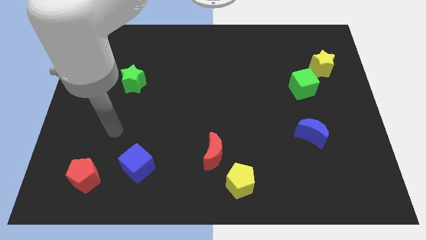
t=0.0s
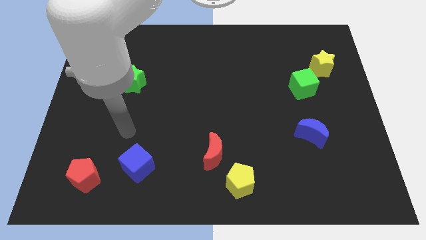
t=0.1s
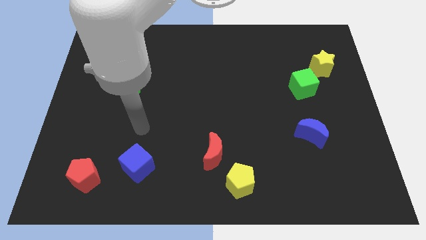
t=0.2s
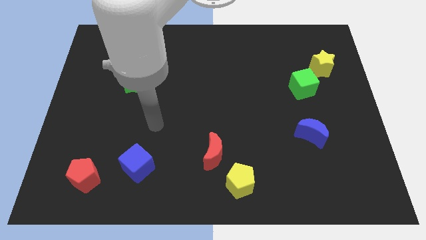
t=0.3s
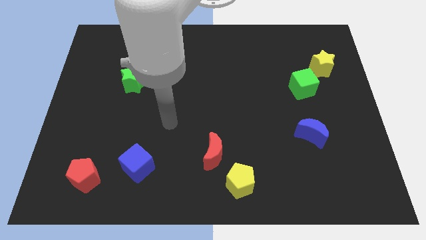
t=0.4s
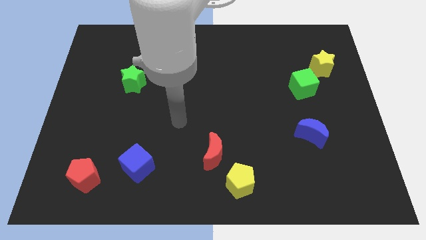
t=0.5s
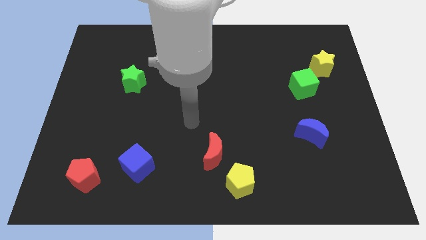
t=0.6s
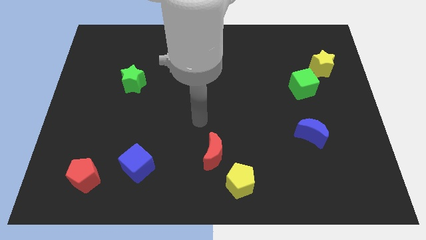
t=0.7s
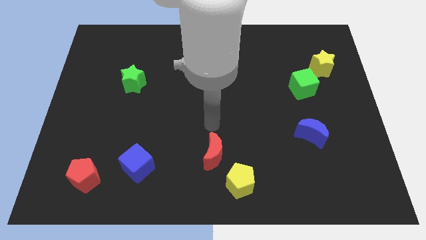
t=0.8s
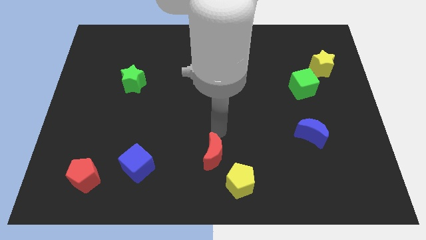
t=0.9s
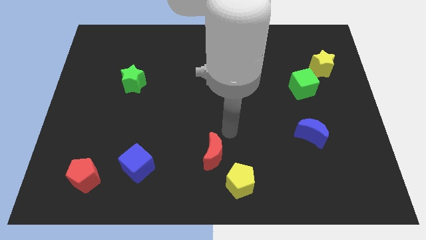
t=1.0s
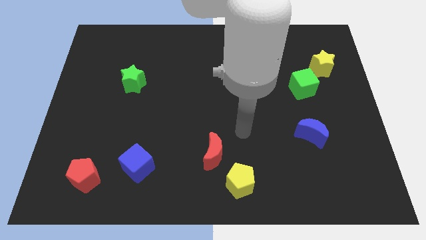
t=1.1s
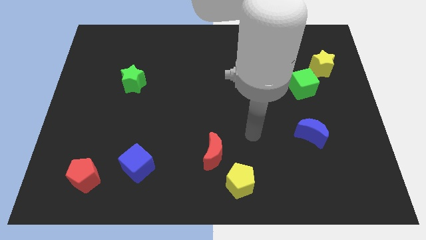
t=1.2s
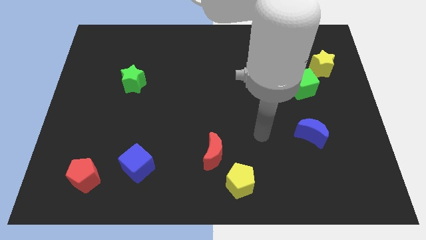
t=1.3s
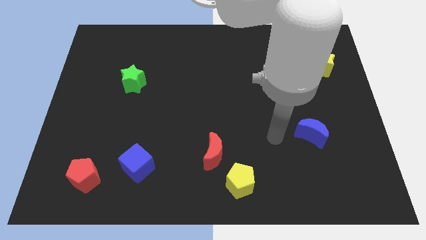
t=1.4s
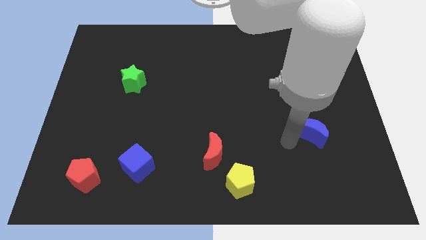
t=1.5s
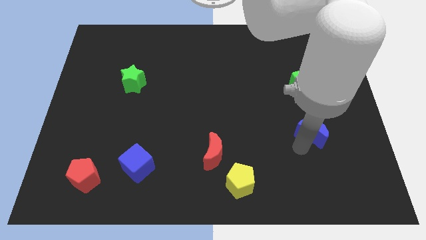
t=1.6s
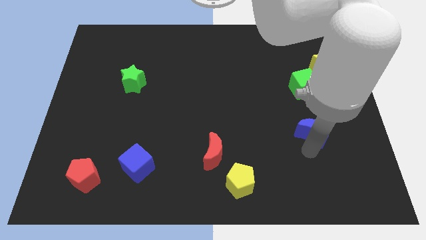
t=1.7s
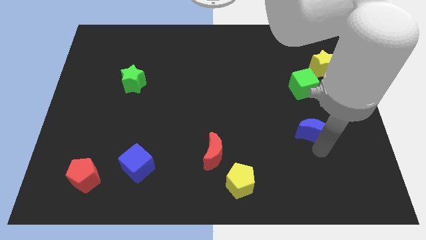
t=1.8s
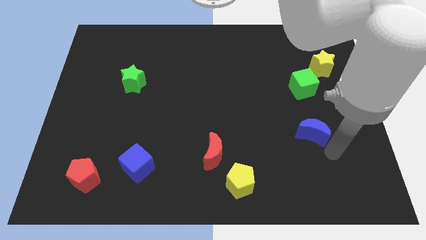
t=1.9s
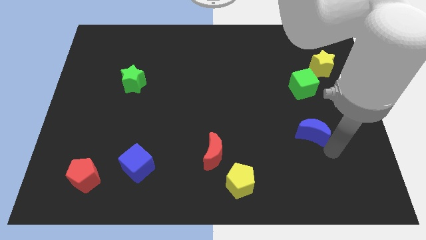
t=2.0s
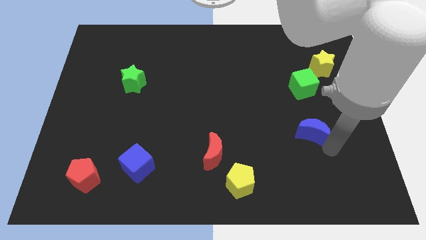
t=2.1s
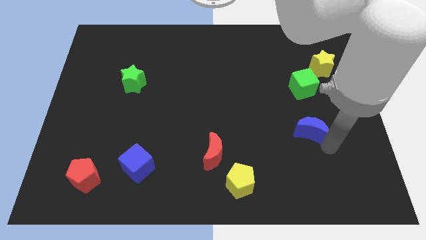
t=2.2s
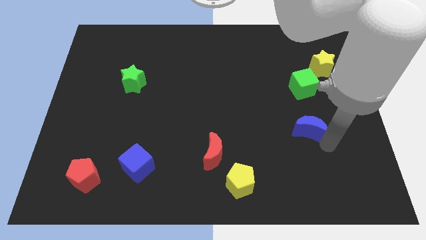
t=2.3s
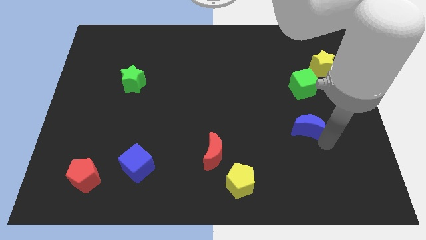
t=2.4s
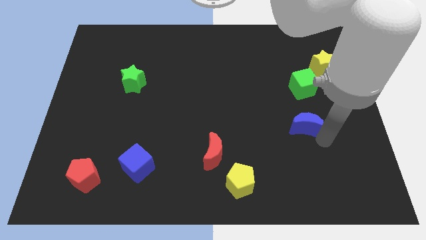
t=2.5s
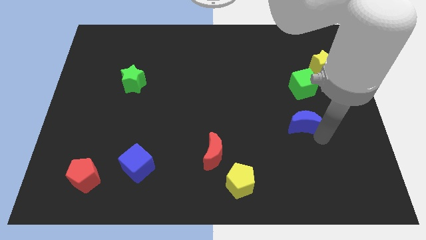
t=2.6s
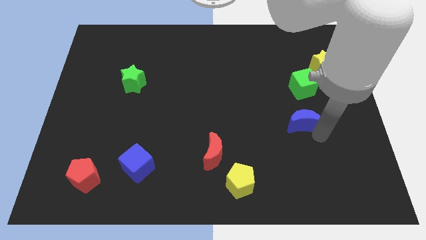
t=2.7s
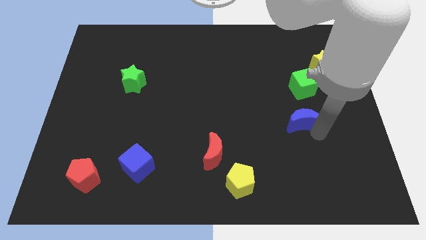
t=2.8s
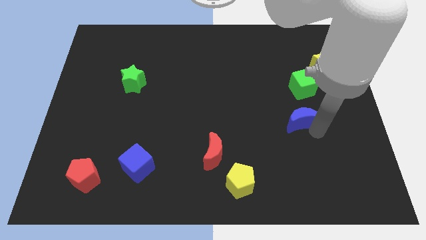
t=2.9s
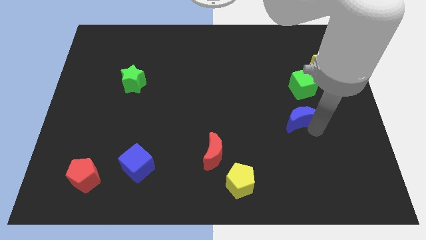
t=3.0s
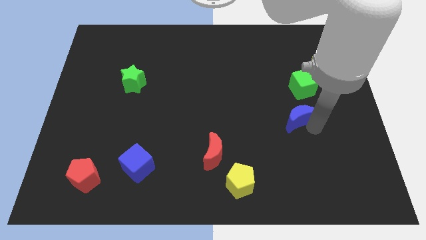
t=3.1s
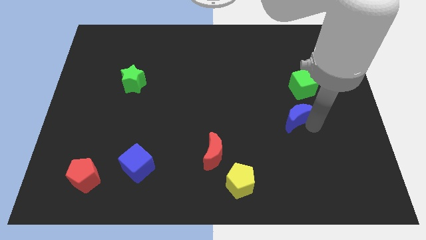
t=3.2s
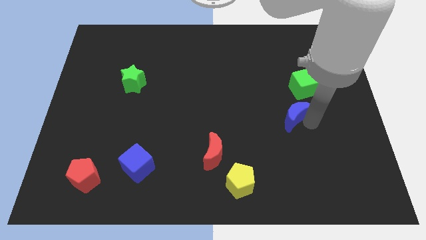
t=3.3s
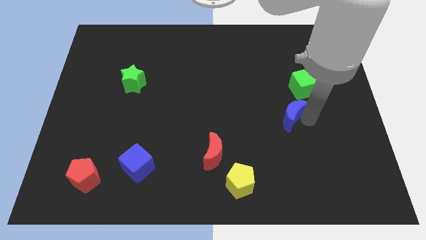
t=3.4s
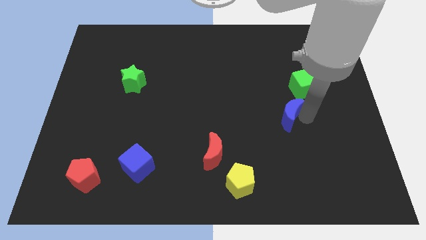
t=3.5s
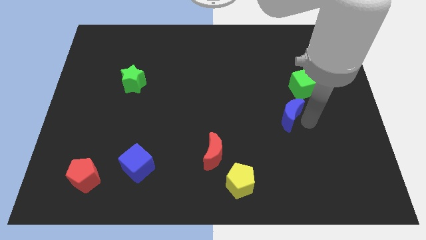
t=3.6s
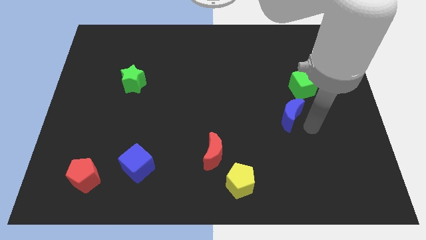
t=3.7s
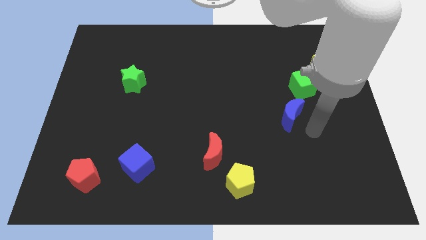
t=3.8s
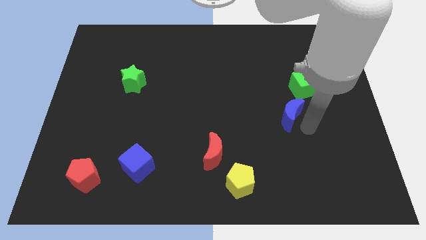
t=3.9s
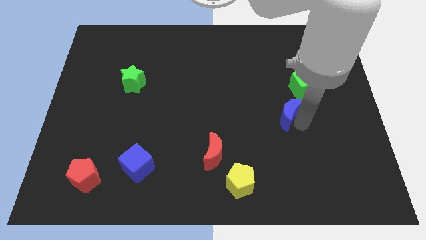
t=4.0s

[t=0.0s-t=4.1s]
push the blue moon diagonally upwards and to the left a bit

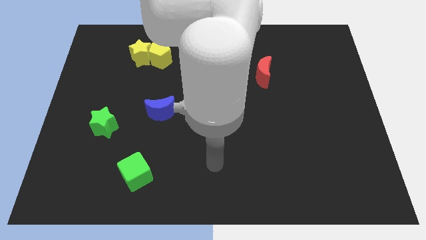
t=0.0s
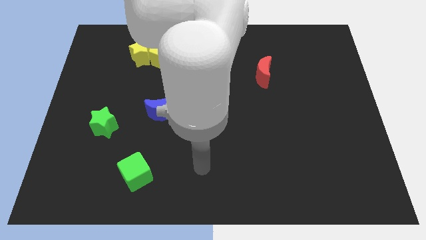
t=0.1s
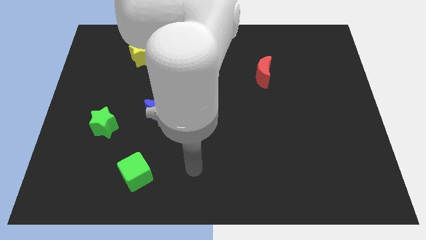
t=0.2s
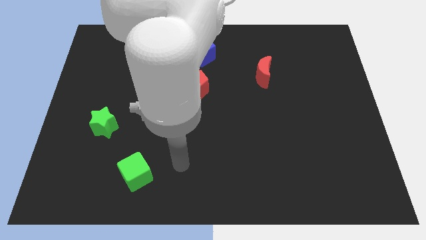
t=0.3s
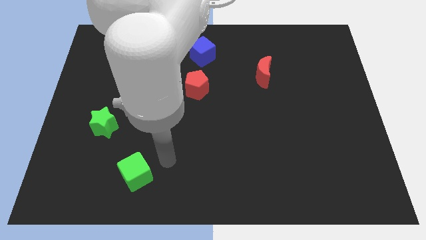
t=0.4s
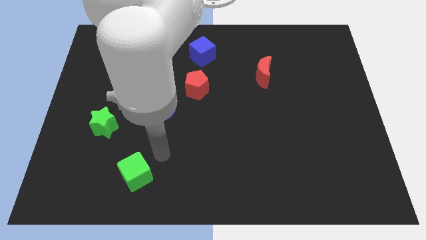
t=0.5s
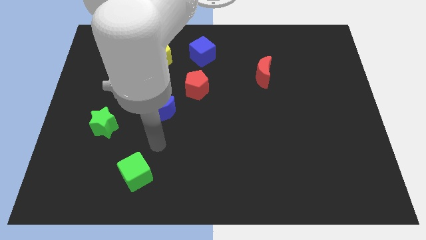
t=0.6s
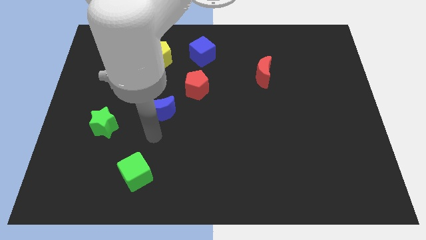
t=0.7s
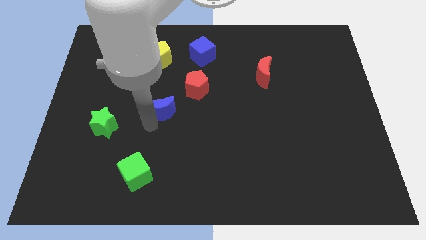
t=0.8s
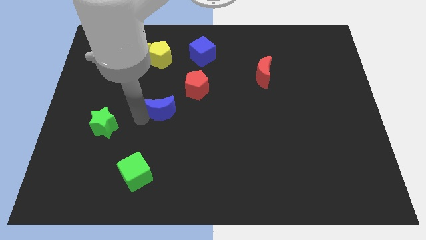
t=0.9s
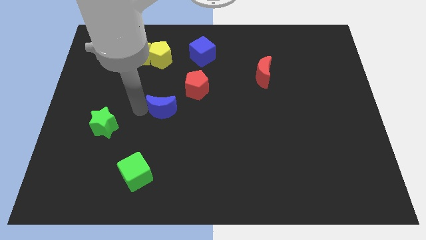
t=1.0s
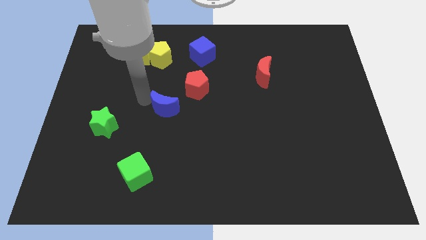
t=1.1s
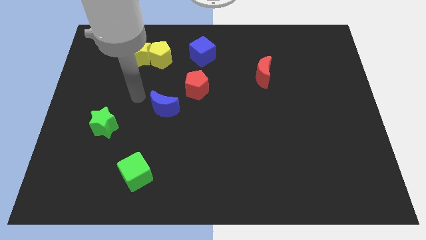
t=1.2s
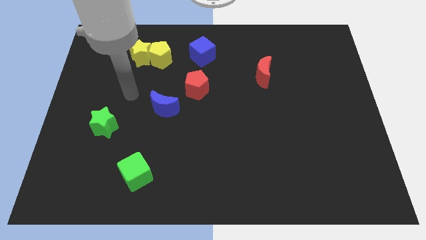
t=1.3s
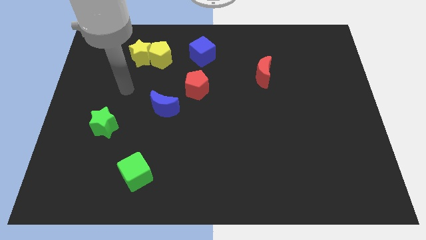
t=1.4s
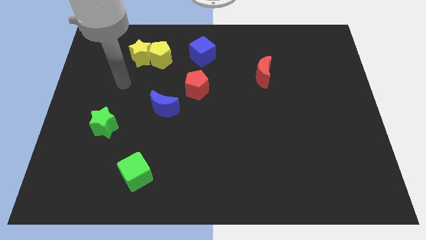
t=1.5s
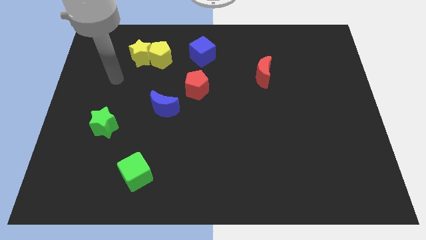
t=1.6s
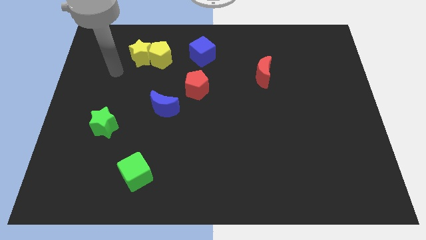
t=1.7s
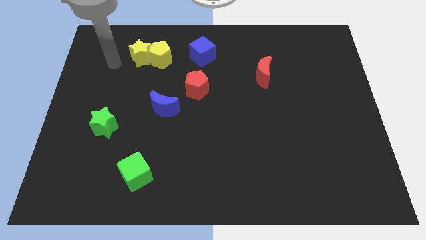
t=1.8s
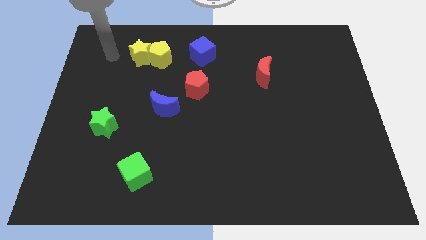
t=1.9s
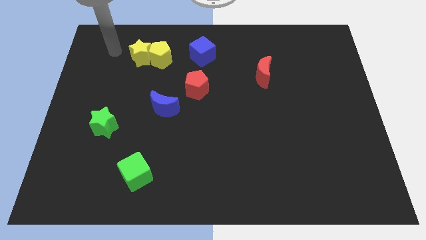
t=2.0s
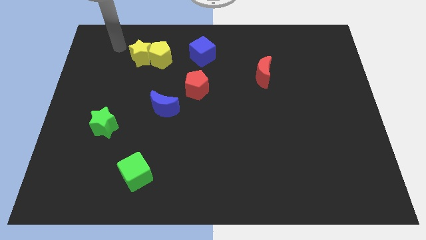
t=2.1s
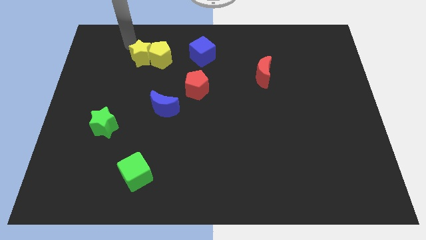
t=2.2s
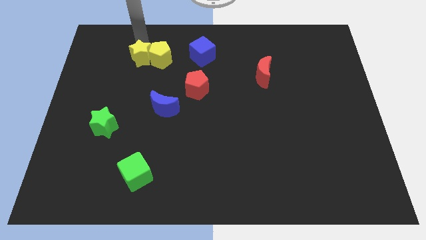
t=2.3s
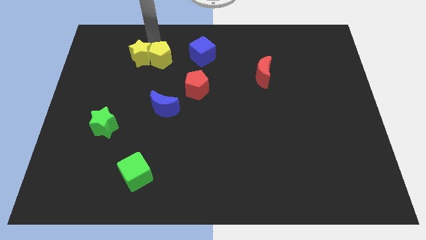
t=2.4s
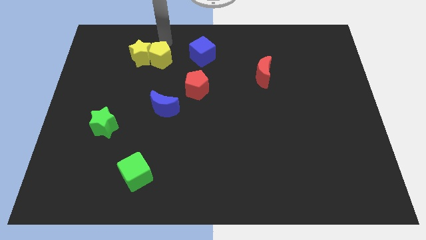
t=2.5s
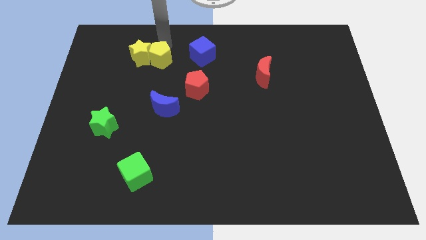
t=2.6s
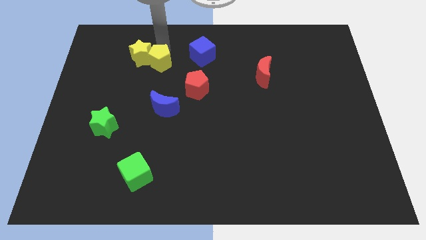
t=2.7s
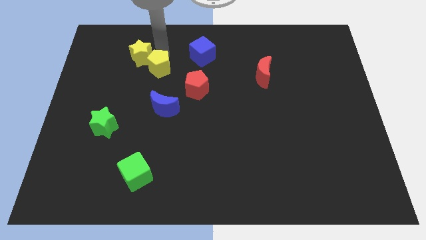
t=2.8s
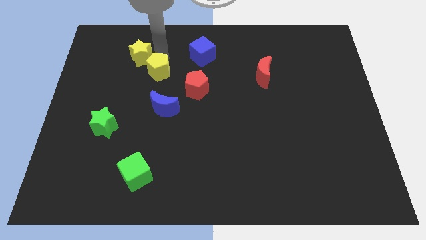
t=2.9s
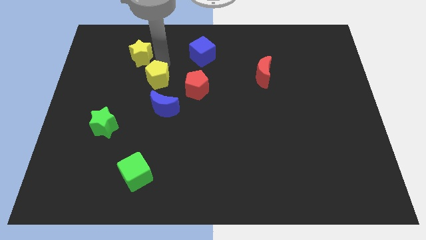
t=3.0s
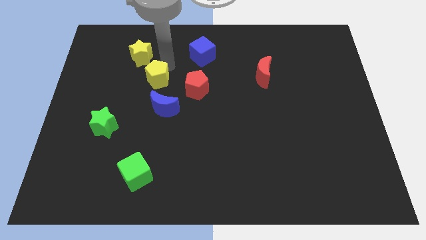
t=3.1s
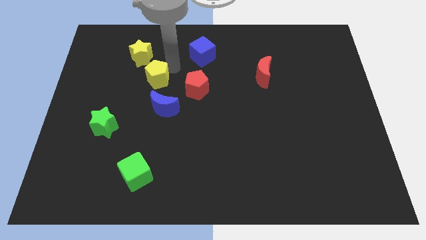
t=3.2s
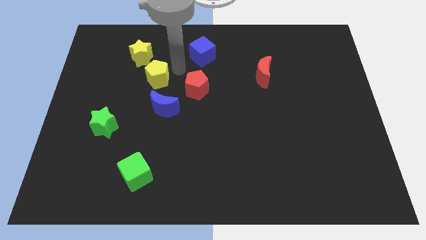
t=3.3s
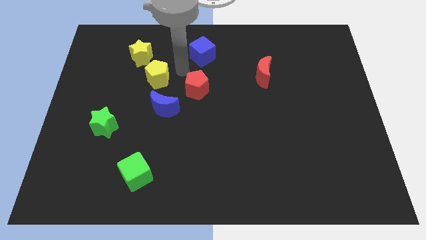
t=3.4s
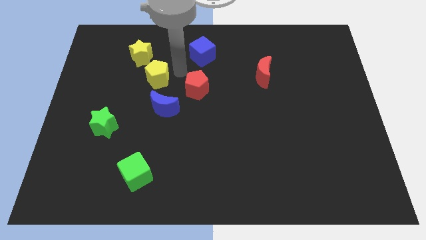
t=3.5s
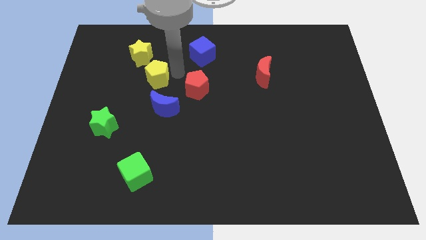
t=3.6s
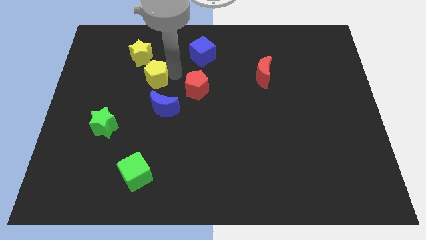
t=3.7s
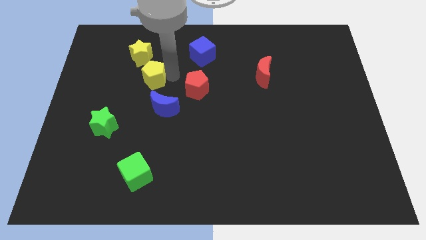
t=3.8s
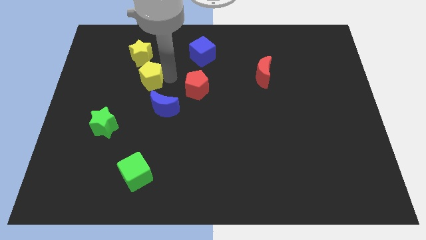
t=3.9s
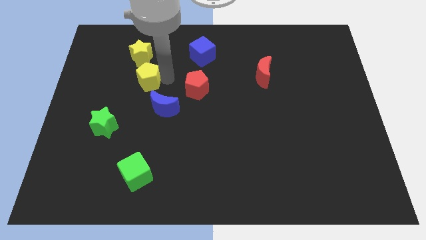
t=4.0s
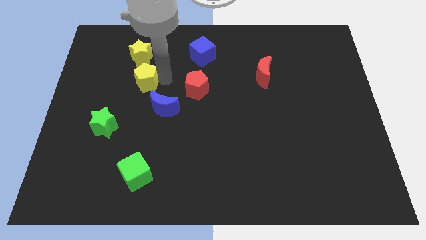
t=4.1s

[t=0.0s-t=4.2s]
slide the yellow pentagon downwards and then to the left somewhat
